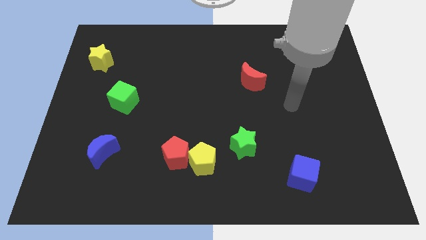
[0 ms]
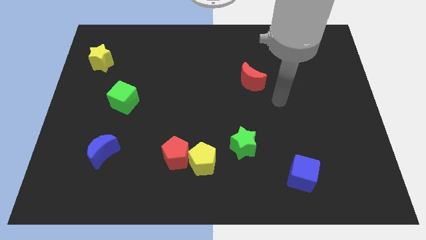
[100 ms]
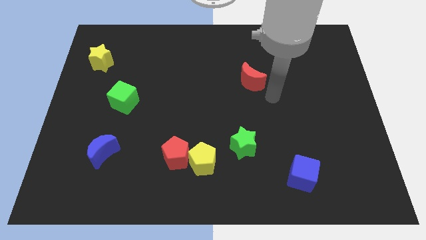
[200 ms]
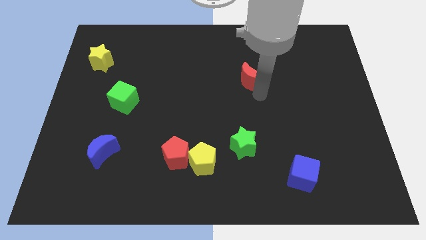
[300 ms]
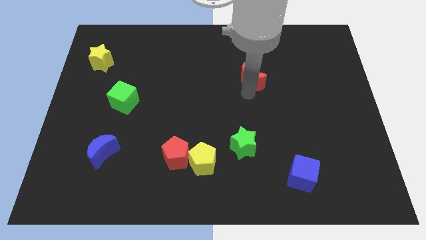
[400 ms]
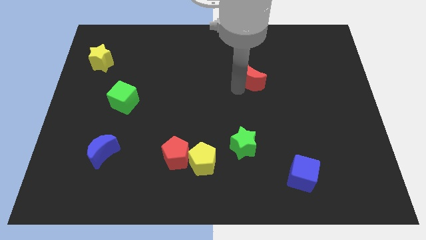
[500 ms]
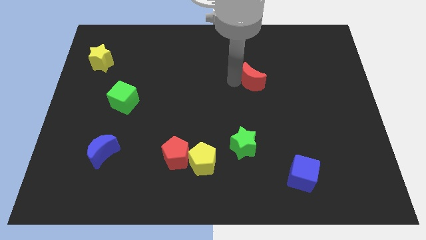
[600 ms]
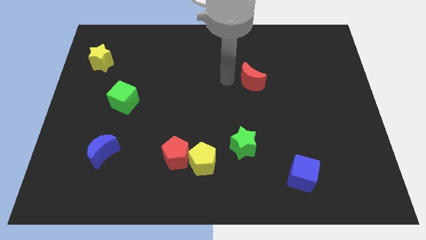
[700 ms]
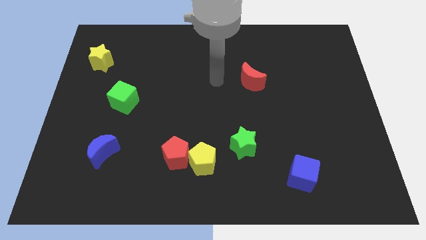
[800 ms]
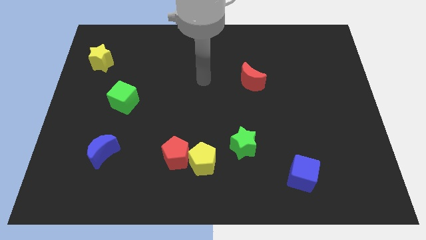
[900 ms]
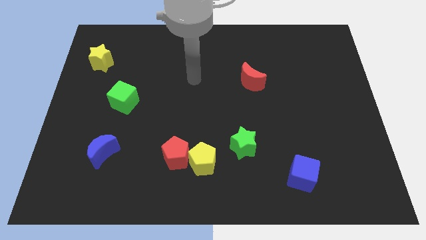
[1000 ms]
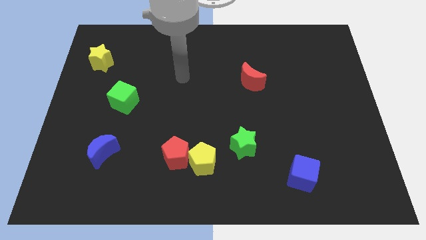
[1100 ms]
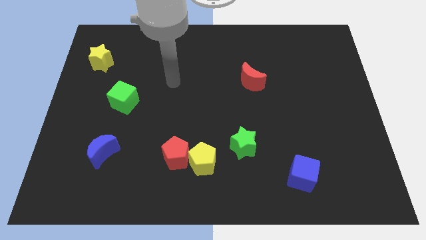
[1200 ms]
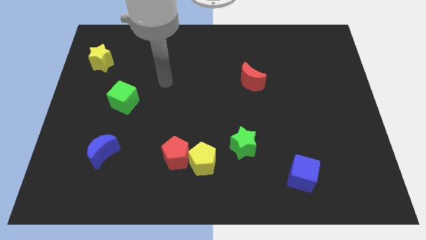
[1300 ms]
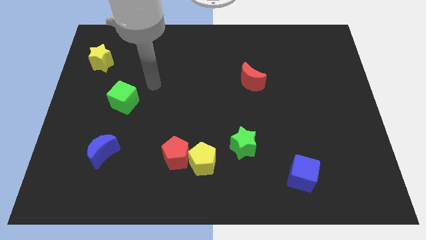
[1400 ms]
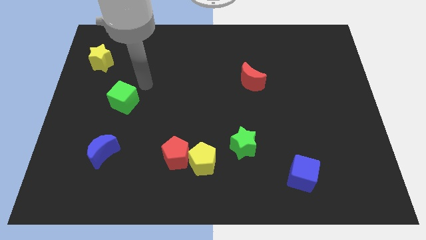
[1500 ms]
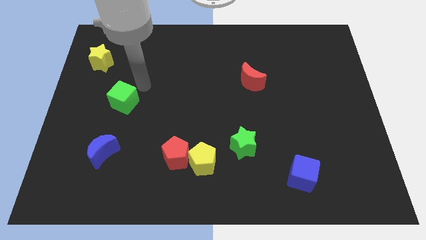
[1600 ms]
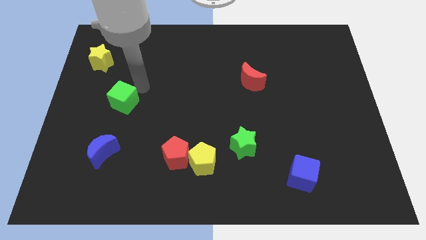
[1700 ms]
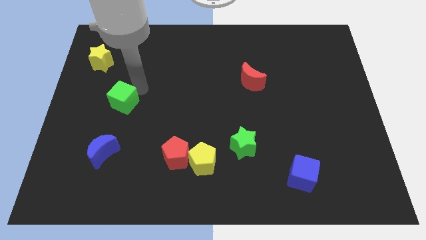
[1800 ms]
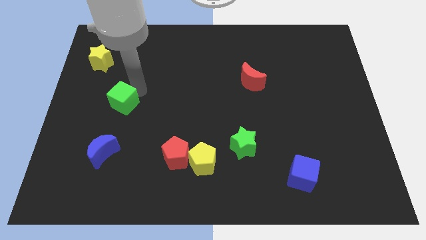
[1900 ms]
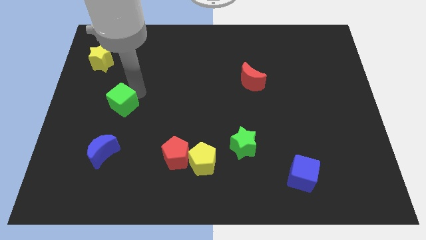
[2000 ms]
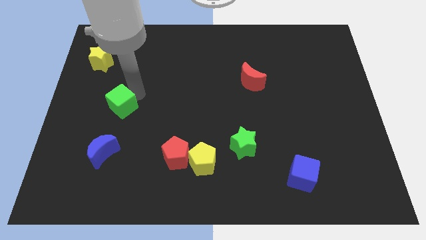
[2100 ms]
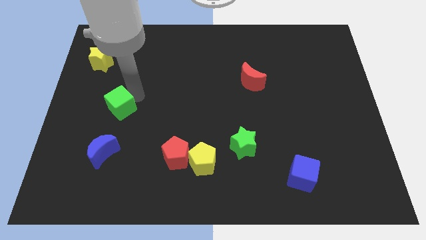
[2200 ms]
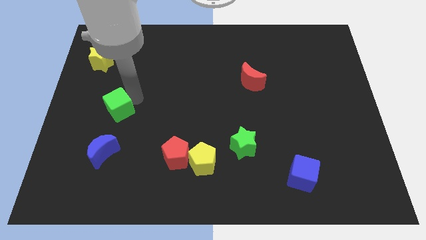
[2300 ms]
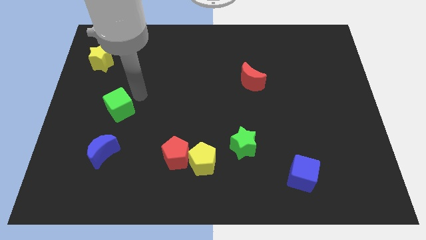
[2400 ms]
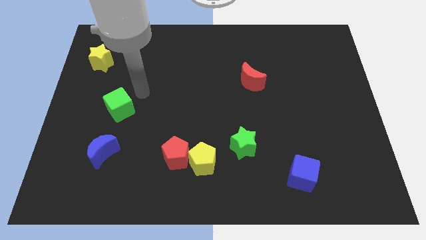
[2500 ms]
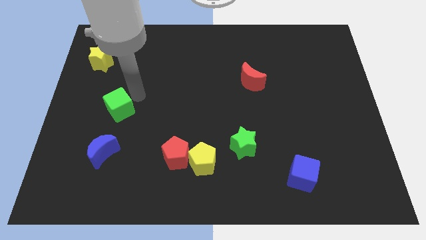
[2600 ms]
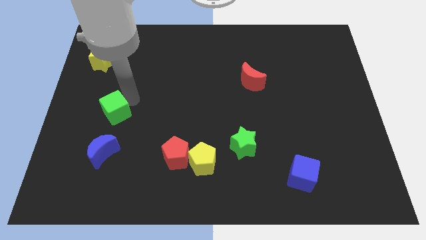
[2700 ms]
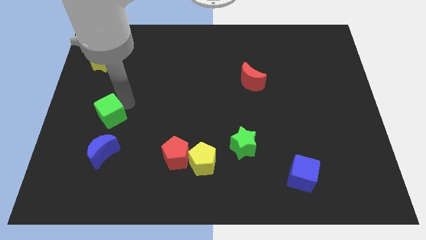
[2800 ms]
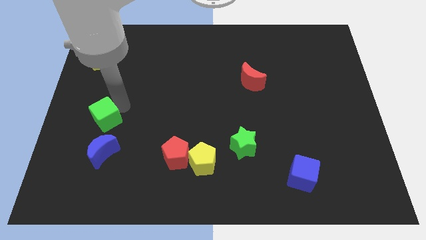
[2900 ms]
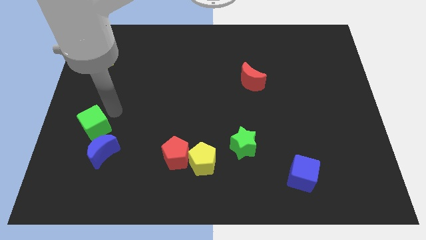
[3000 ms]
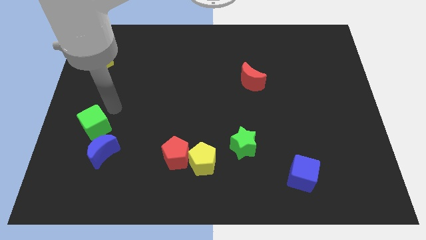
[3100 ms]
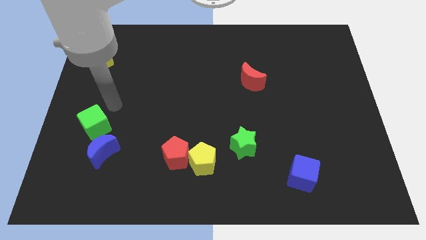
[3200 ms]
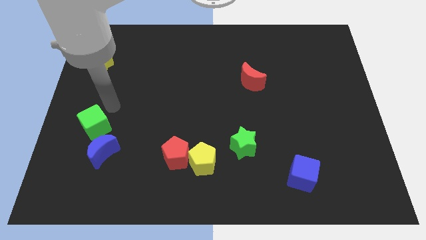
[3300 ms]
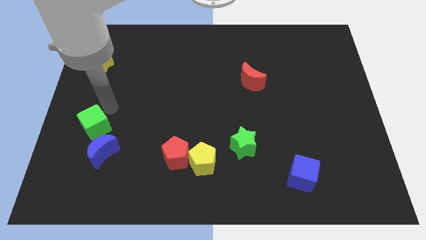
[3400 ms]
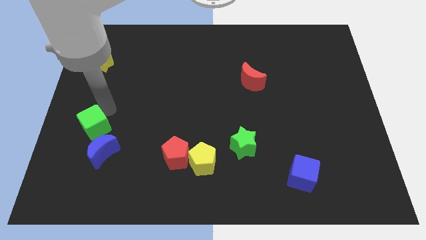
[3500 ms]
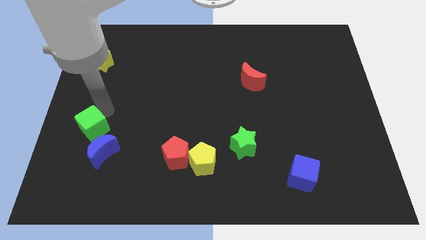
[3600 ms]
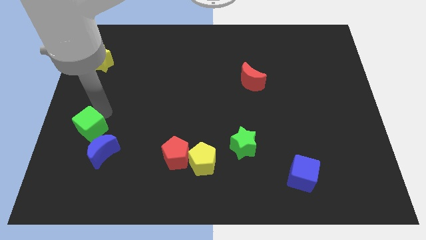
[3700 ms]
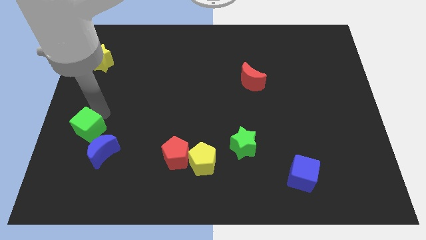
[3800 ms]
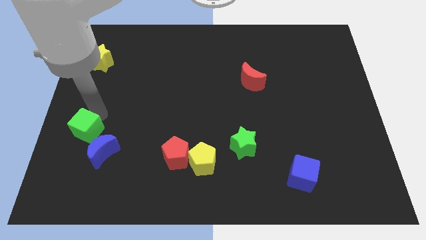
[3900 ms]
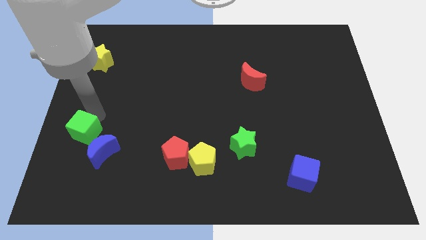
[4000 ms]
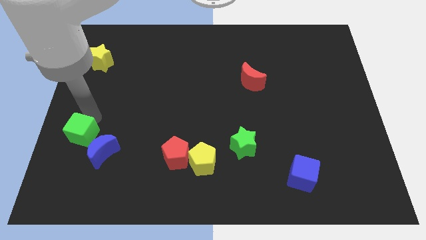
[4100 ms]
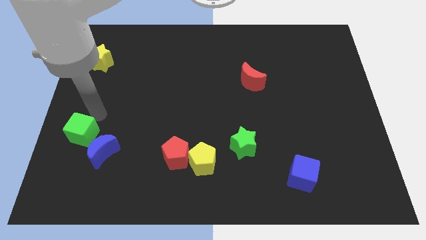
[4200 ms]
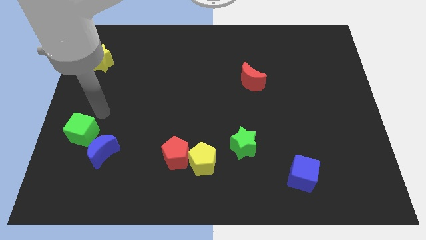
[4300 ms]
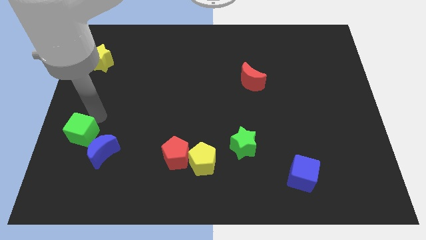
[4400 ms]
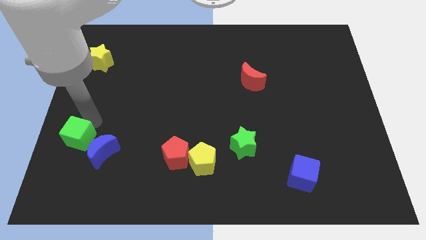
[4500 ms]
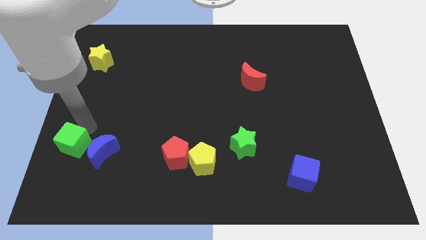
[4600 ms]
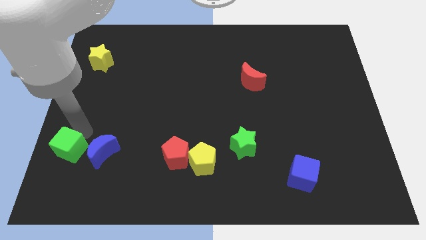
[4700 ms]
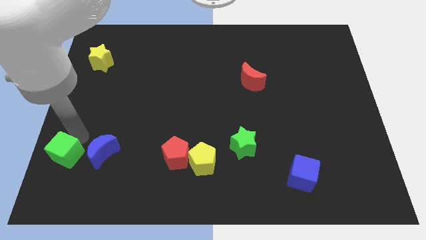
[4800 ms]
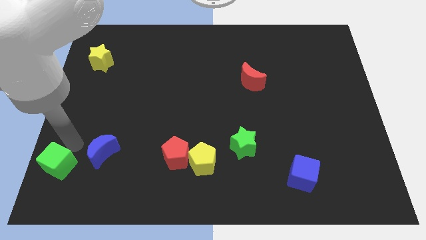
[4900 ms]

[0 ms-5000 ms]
move the green cube to the bottom left of the board

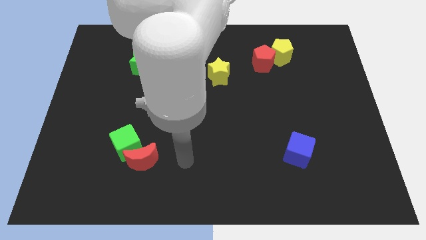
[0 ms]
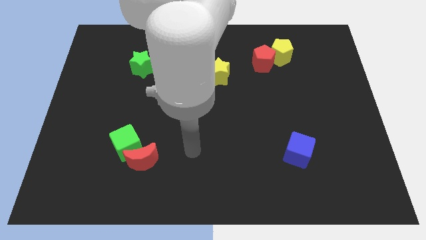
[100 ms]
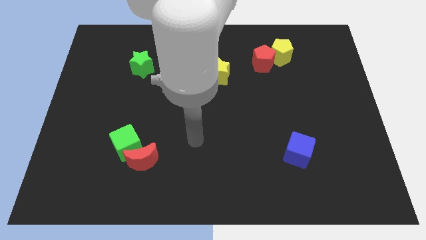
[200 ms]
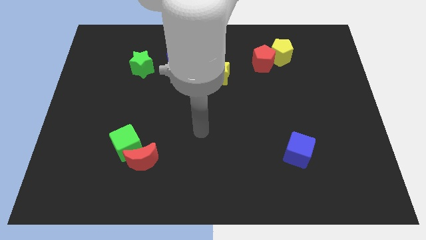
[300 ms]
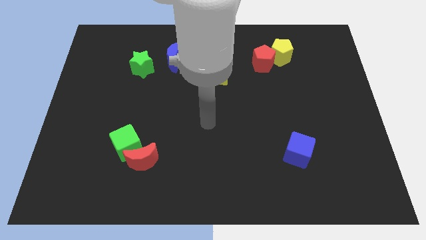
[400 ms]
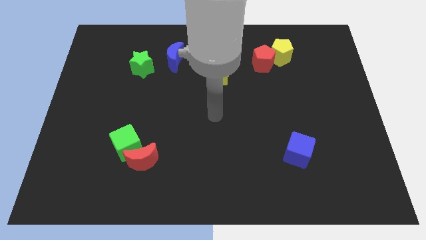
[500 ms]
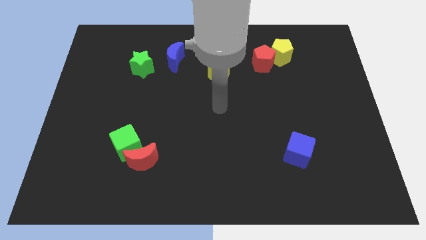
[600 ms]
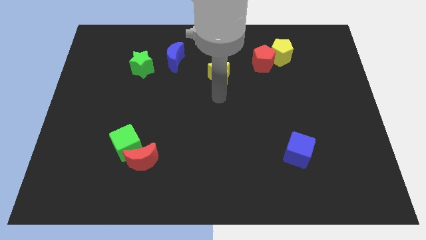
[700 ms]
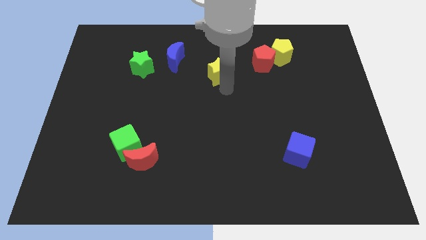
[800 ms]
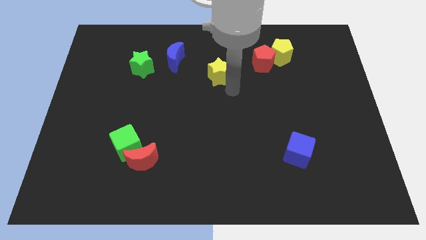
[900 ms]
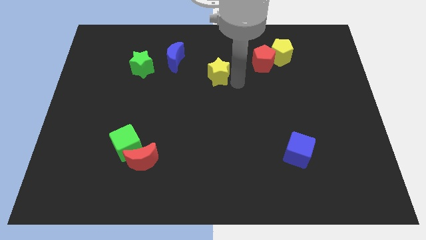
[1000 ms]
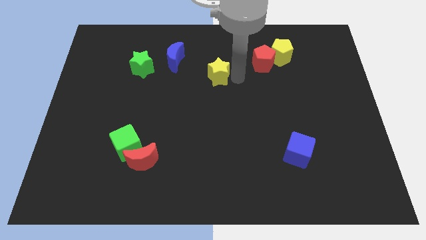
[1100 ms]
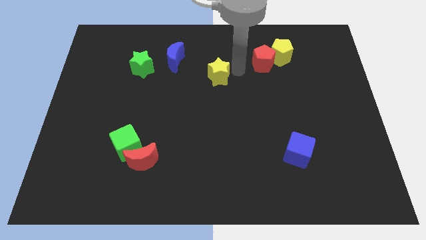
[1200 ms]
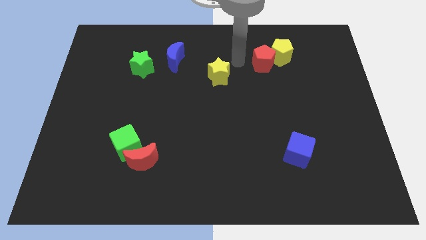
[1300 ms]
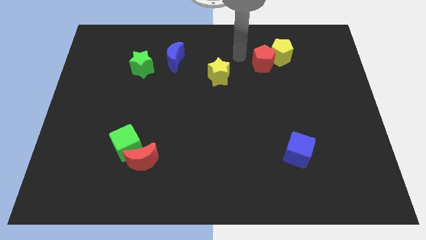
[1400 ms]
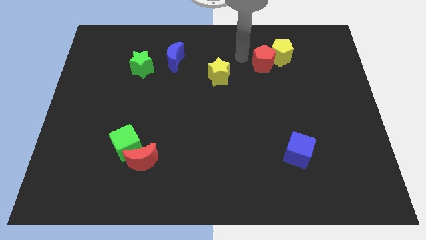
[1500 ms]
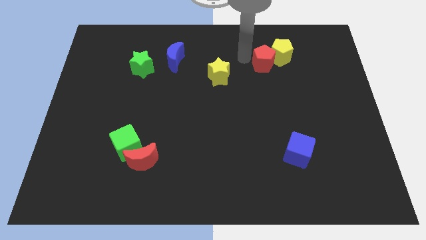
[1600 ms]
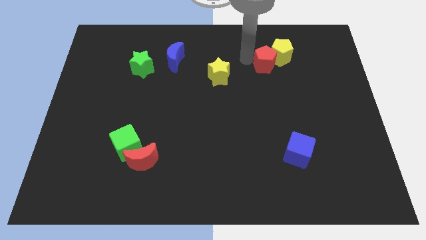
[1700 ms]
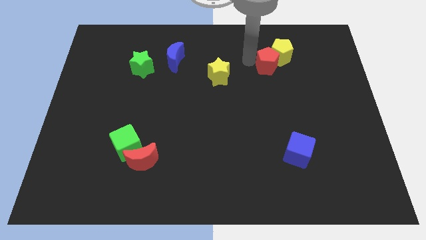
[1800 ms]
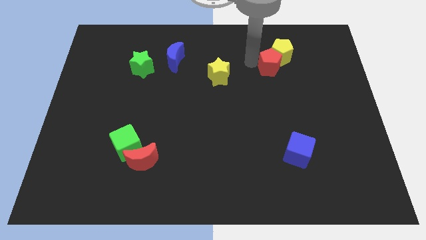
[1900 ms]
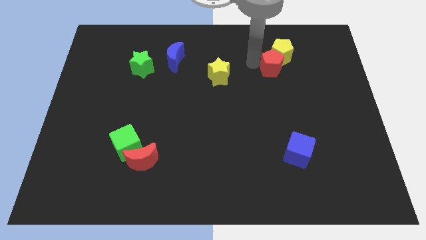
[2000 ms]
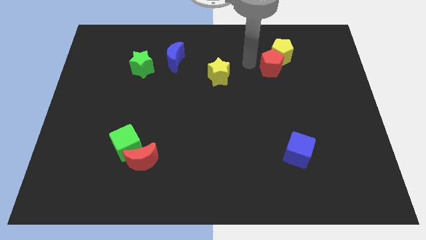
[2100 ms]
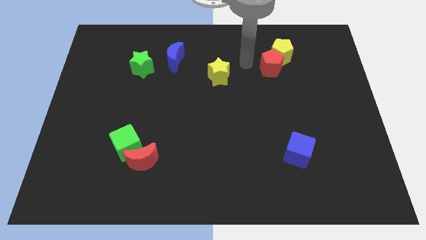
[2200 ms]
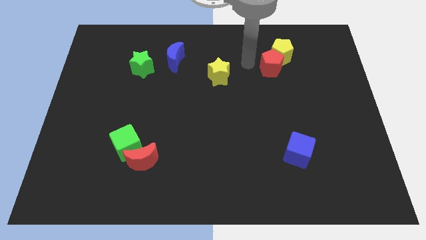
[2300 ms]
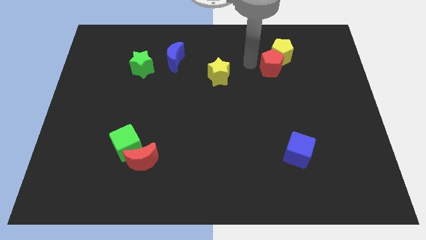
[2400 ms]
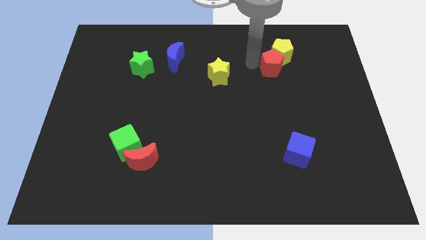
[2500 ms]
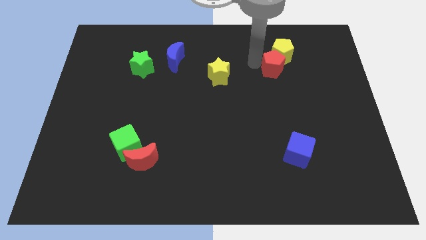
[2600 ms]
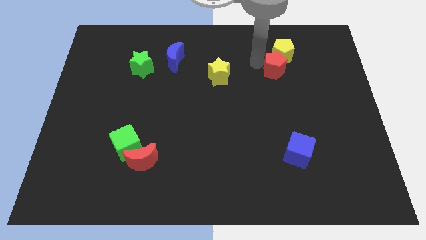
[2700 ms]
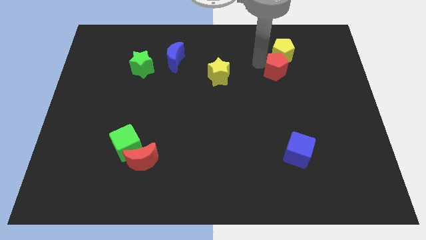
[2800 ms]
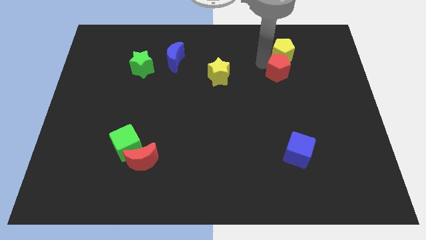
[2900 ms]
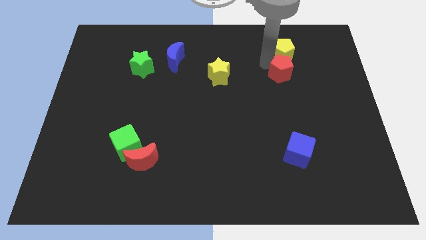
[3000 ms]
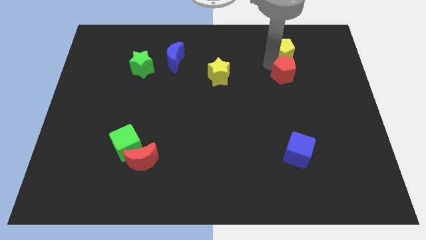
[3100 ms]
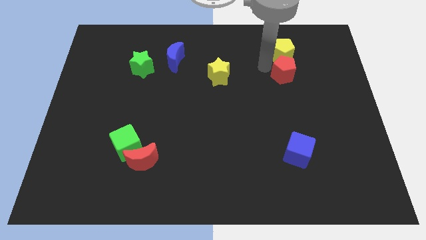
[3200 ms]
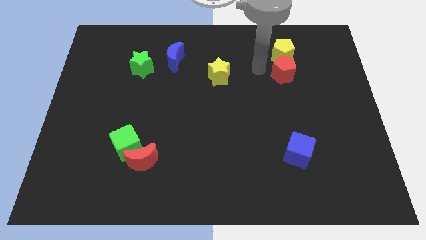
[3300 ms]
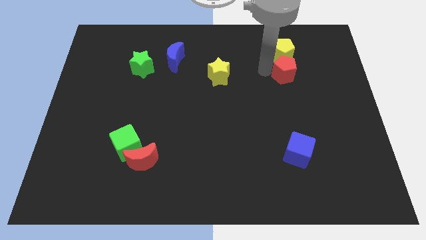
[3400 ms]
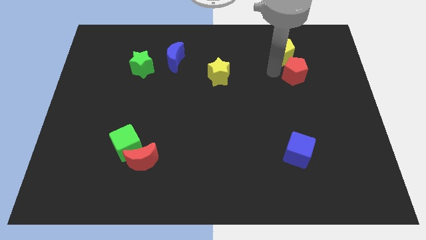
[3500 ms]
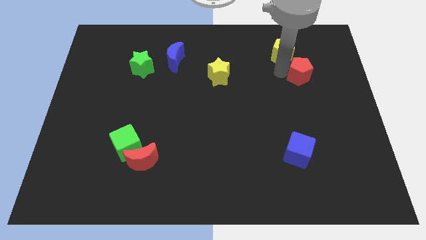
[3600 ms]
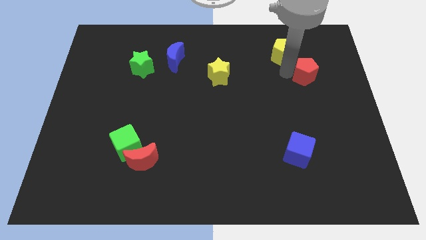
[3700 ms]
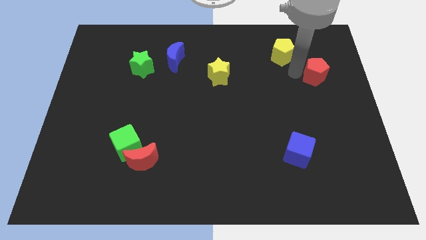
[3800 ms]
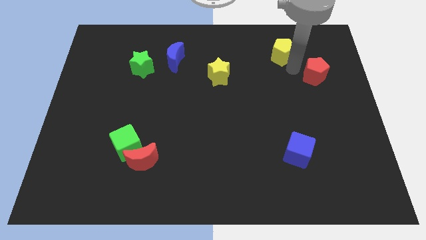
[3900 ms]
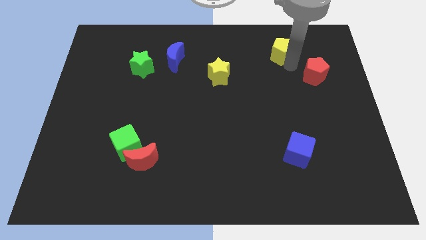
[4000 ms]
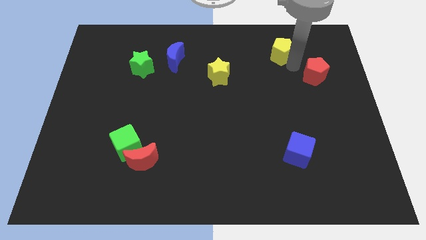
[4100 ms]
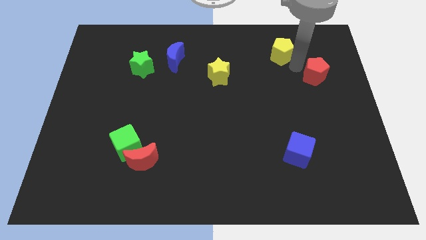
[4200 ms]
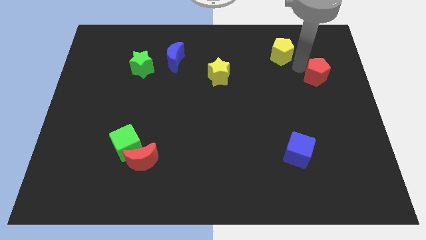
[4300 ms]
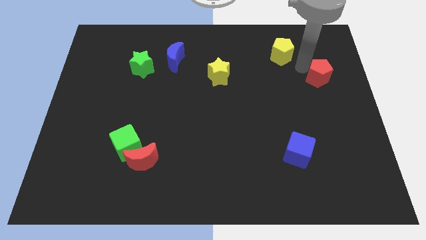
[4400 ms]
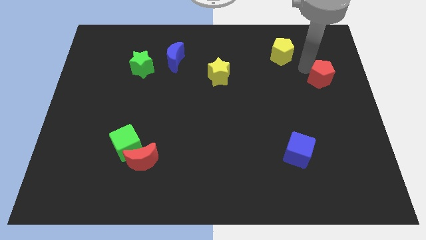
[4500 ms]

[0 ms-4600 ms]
put the red pentagon to the center right
